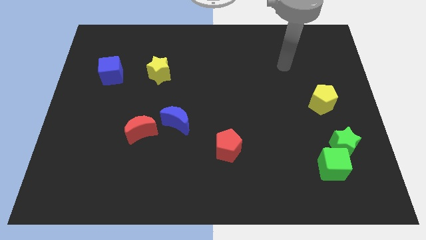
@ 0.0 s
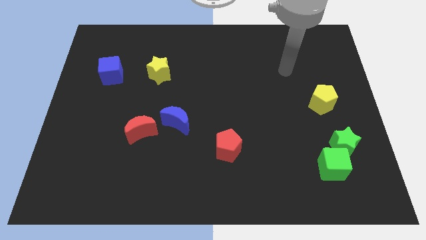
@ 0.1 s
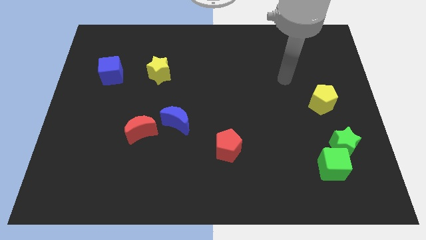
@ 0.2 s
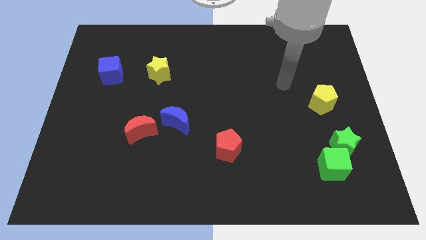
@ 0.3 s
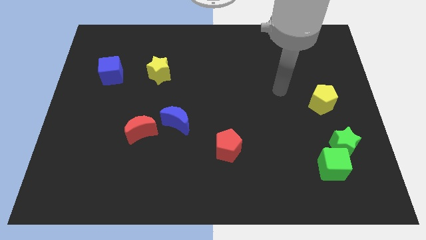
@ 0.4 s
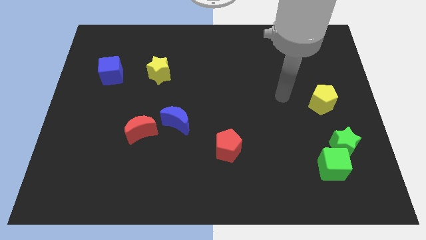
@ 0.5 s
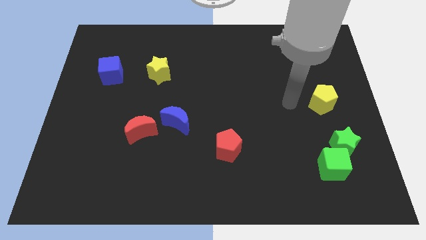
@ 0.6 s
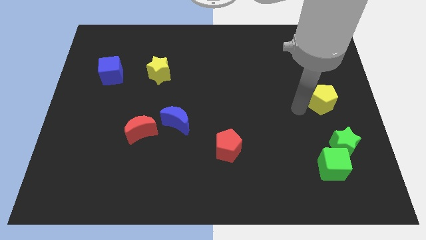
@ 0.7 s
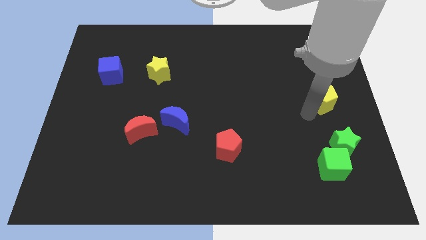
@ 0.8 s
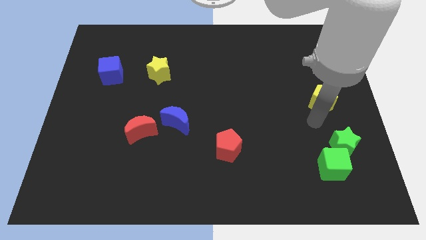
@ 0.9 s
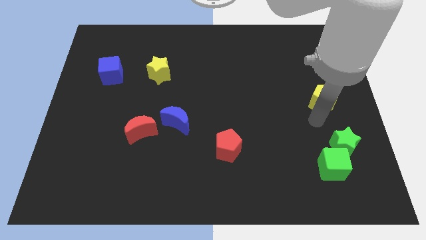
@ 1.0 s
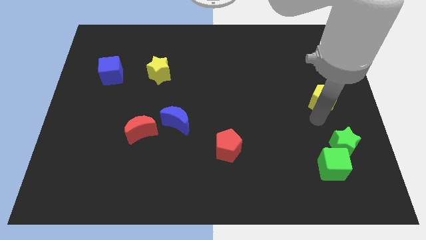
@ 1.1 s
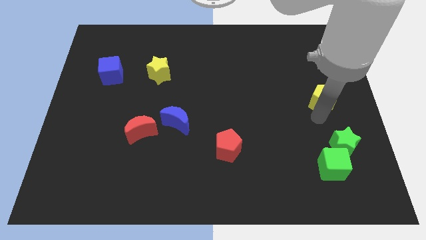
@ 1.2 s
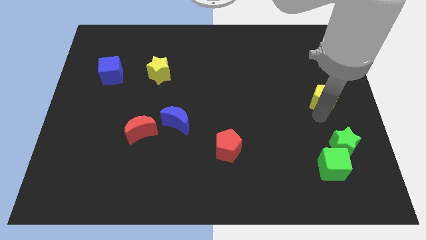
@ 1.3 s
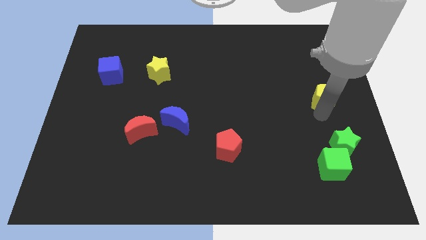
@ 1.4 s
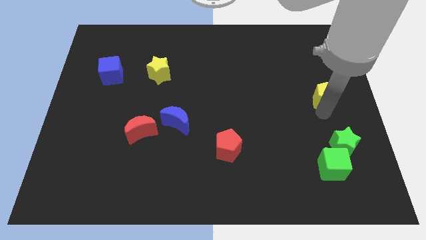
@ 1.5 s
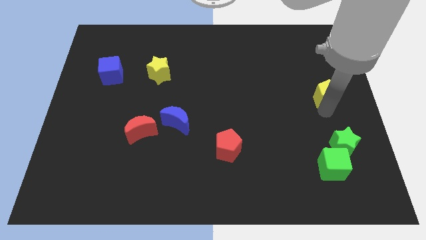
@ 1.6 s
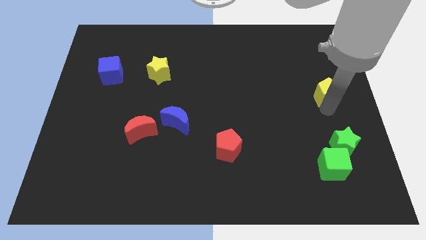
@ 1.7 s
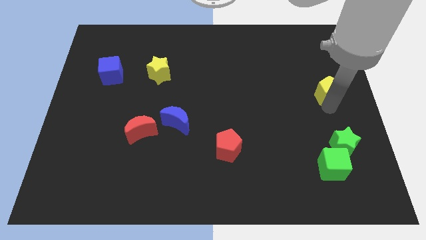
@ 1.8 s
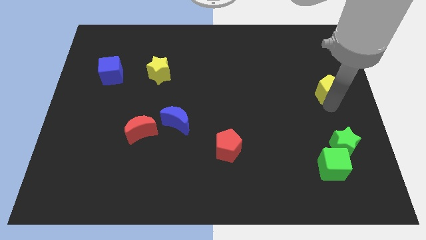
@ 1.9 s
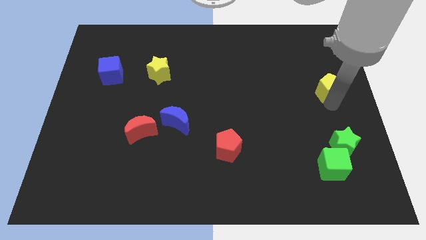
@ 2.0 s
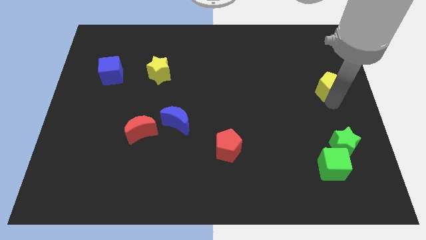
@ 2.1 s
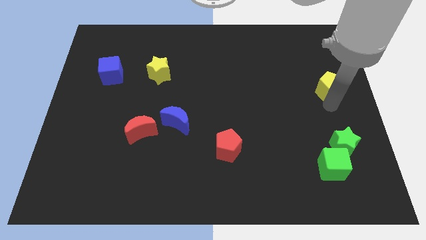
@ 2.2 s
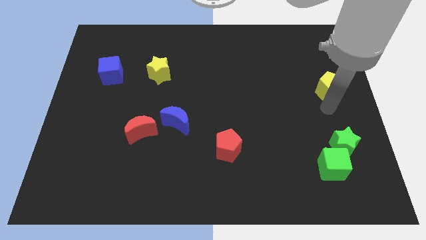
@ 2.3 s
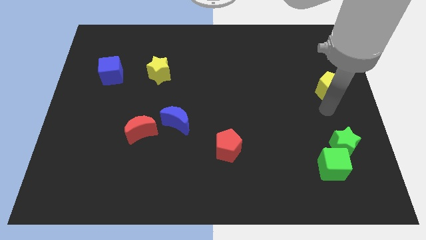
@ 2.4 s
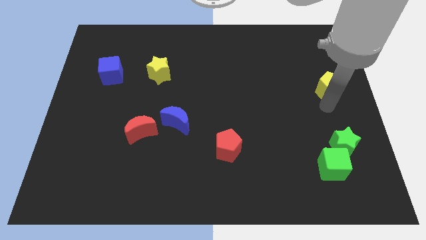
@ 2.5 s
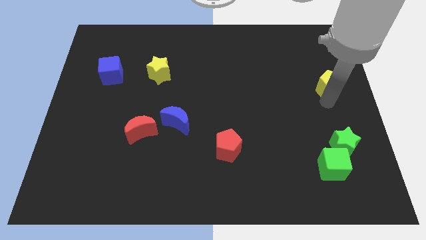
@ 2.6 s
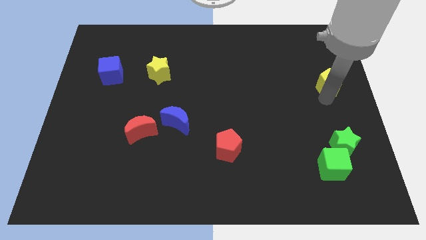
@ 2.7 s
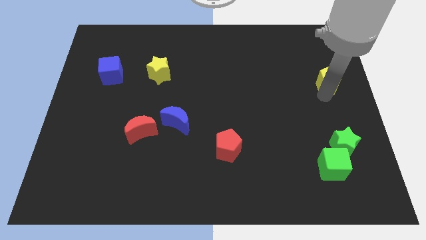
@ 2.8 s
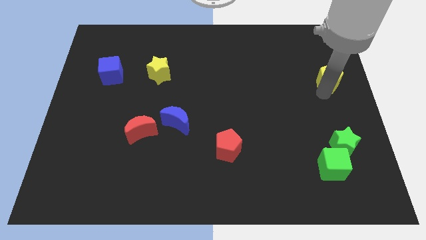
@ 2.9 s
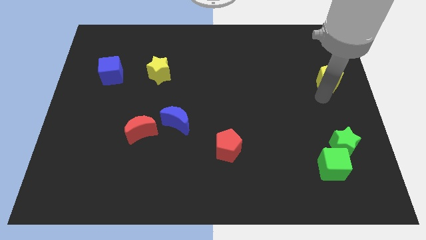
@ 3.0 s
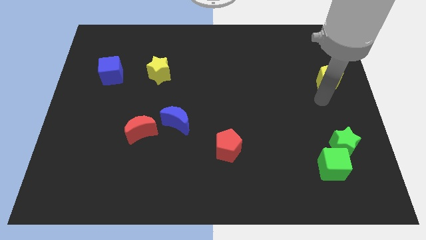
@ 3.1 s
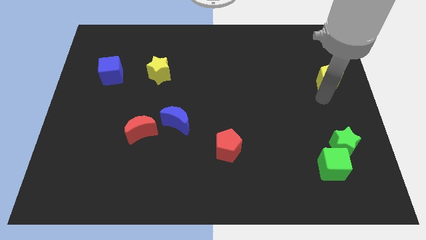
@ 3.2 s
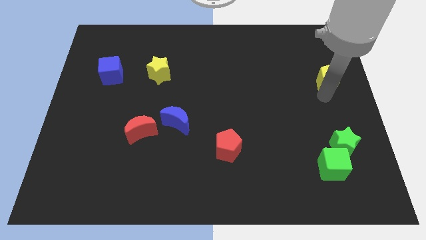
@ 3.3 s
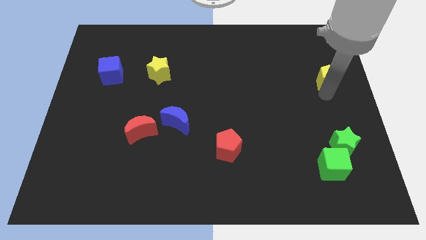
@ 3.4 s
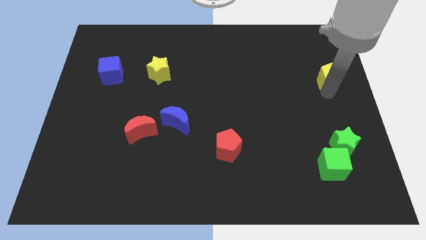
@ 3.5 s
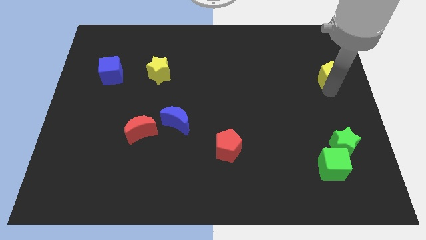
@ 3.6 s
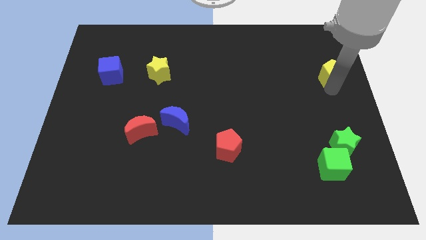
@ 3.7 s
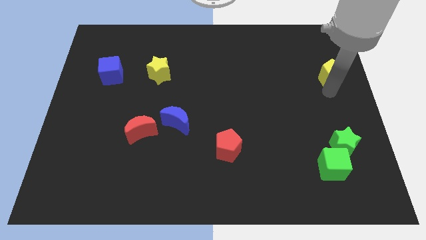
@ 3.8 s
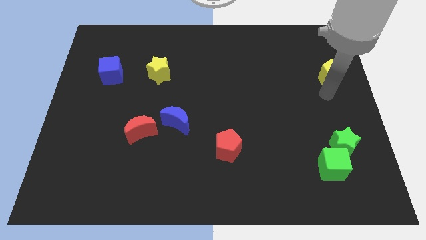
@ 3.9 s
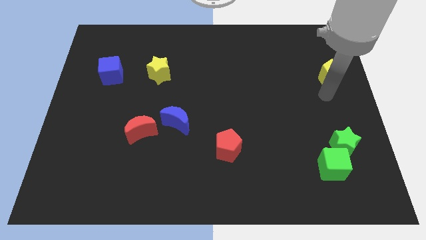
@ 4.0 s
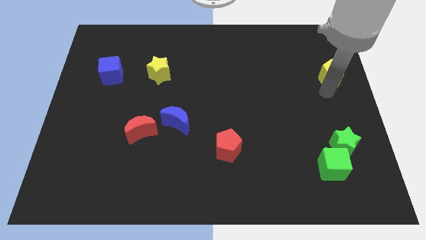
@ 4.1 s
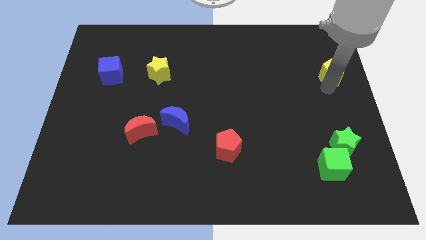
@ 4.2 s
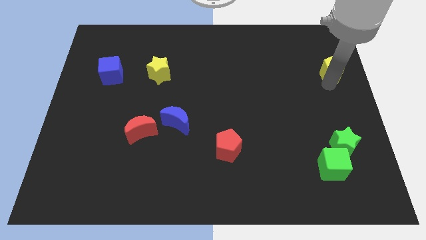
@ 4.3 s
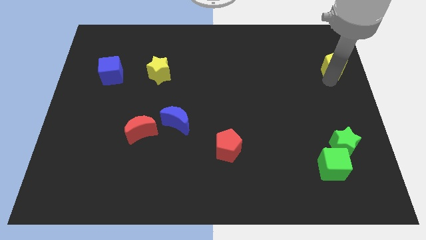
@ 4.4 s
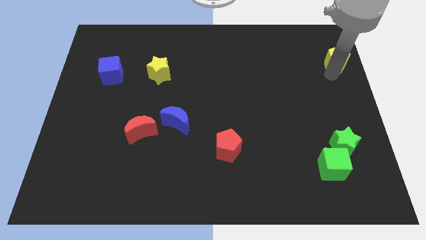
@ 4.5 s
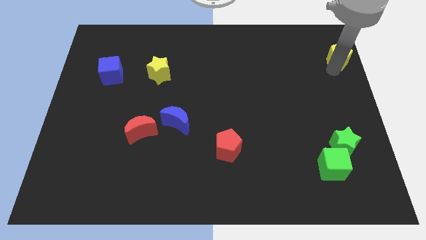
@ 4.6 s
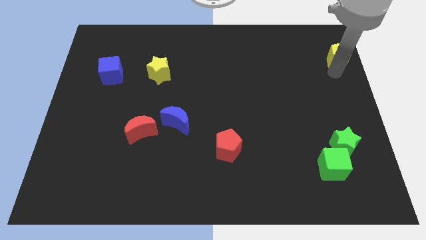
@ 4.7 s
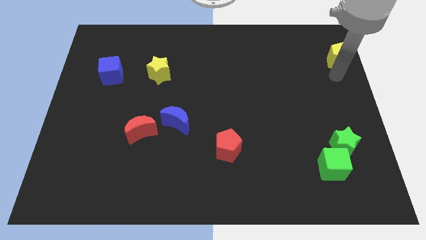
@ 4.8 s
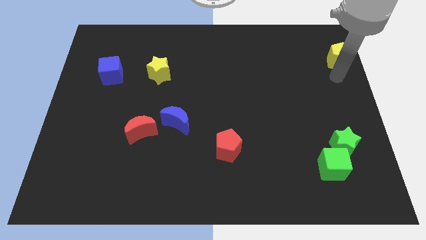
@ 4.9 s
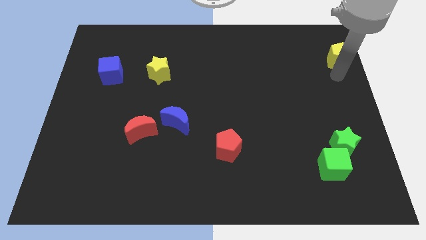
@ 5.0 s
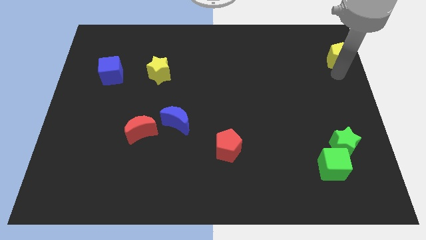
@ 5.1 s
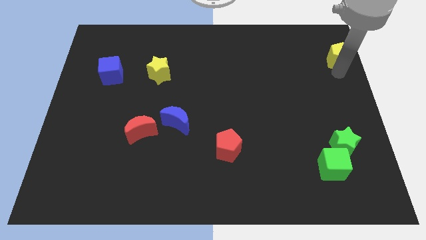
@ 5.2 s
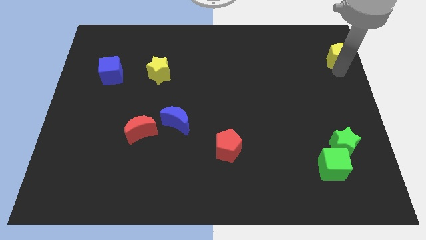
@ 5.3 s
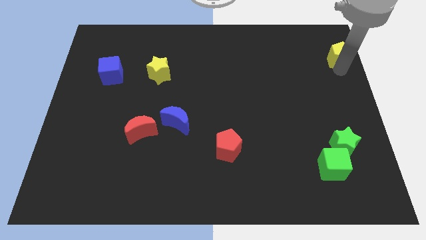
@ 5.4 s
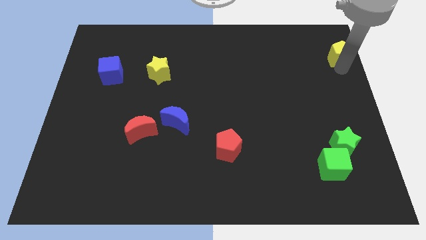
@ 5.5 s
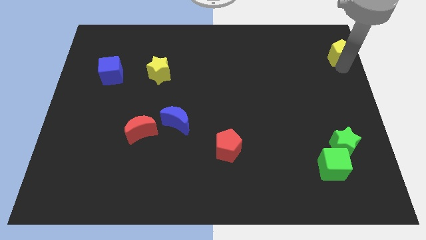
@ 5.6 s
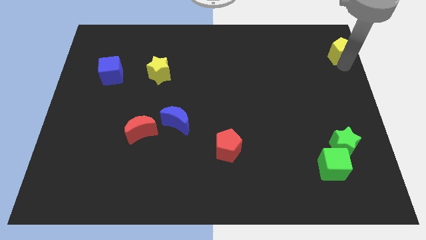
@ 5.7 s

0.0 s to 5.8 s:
move the yellow pentagon to the top right corner

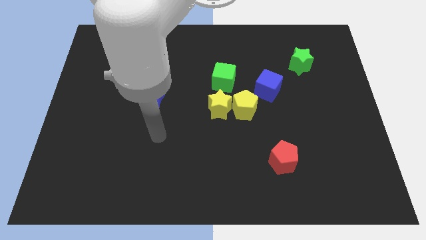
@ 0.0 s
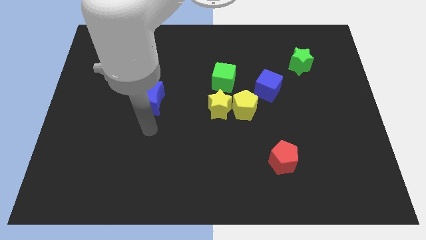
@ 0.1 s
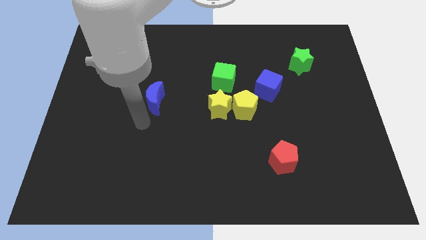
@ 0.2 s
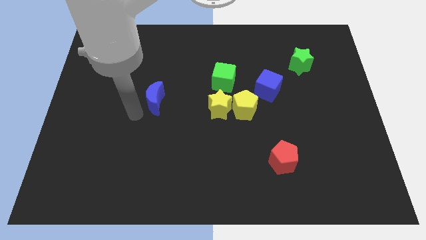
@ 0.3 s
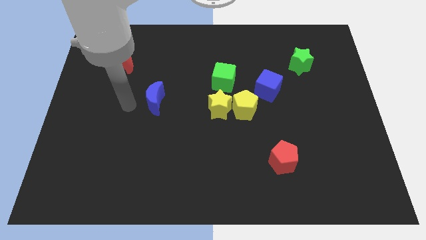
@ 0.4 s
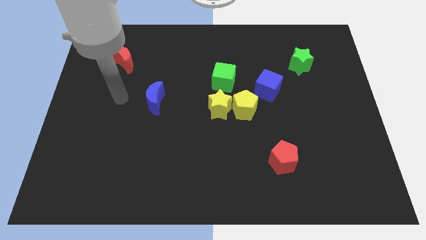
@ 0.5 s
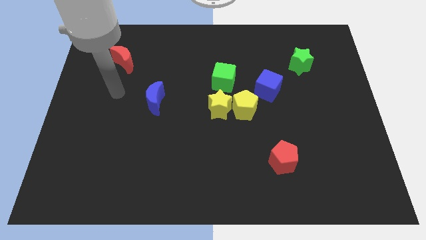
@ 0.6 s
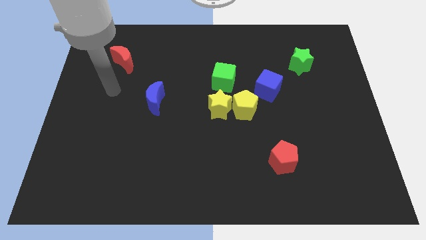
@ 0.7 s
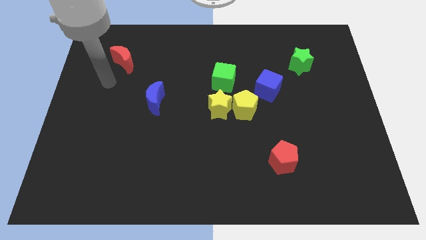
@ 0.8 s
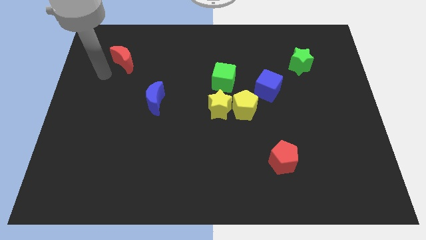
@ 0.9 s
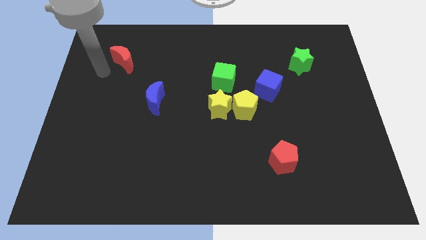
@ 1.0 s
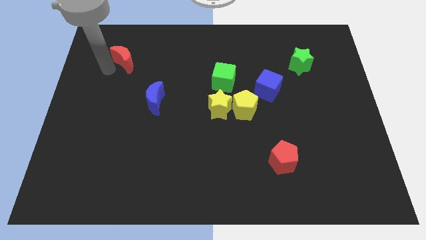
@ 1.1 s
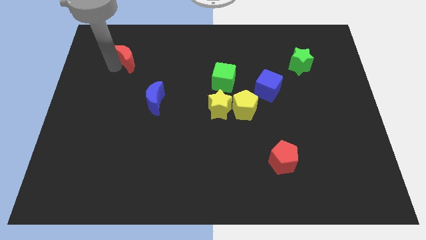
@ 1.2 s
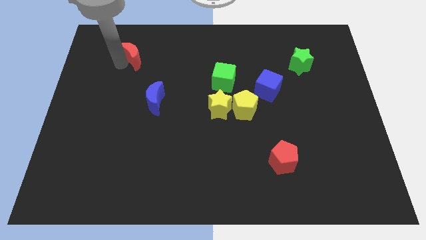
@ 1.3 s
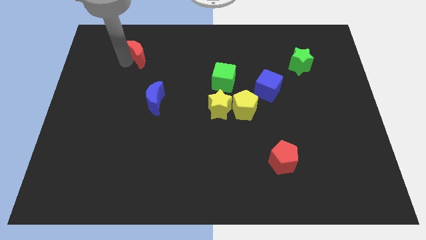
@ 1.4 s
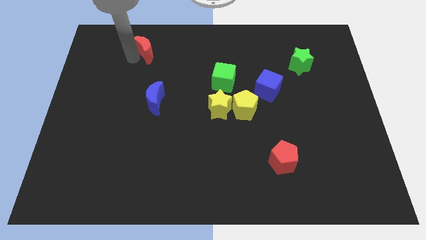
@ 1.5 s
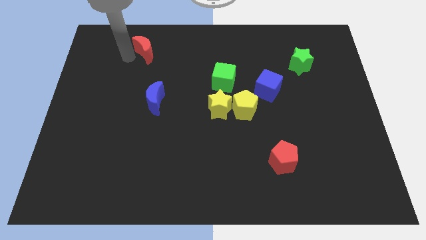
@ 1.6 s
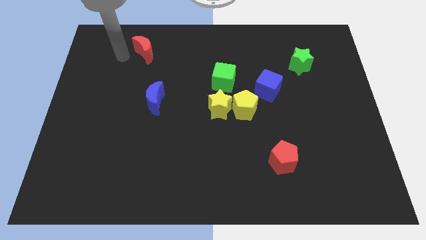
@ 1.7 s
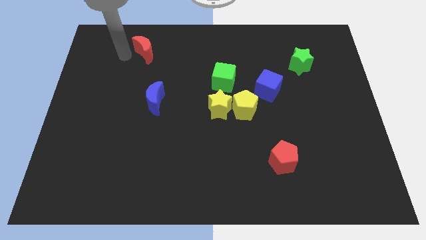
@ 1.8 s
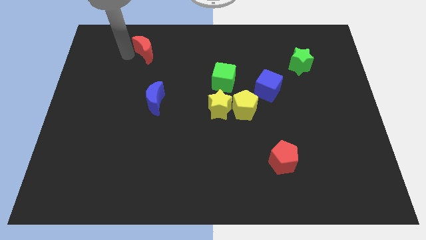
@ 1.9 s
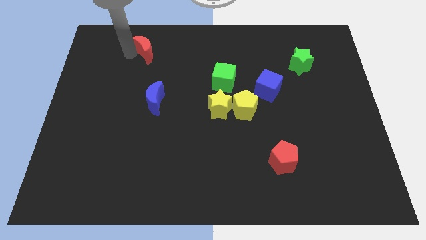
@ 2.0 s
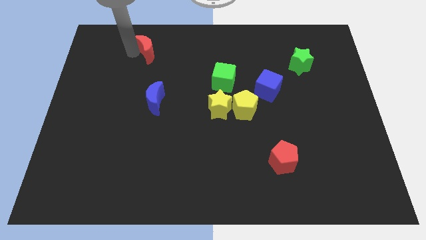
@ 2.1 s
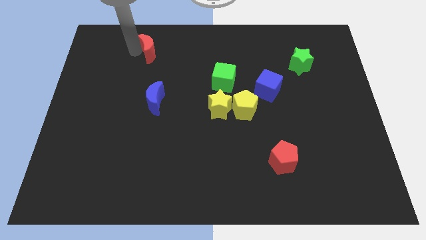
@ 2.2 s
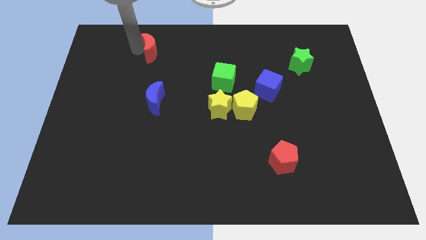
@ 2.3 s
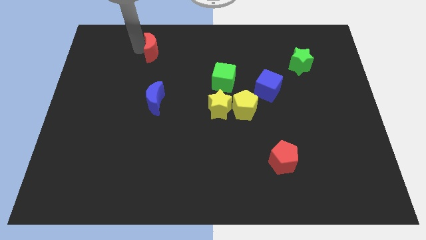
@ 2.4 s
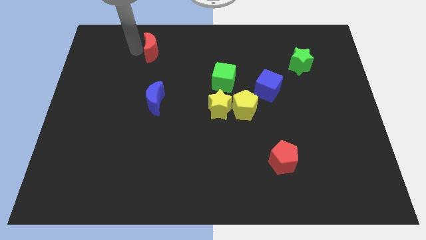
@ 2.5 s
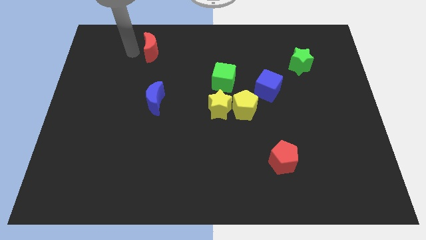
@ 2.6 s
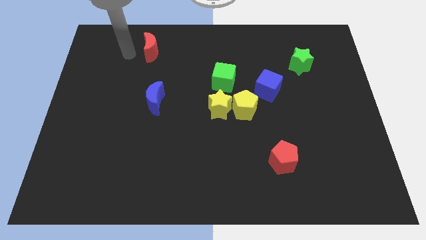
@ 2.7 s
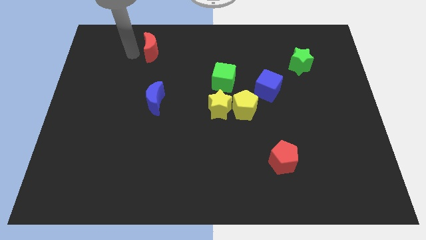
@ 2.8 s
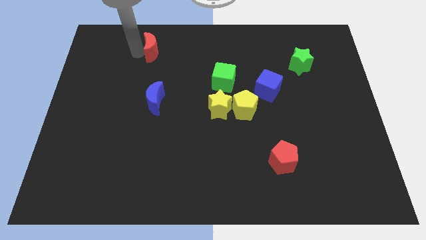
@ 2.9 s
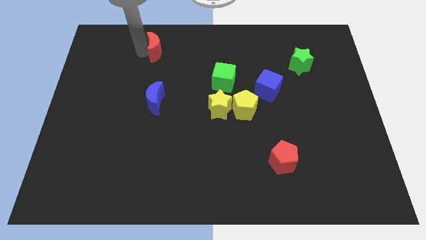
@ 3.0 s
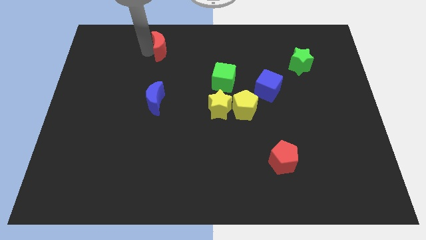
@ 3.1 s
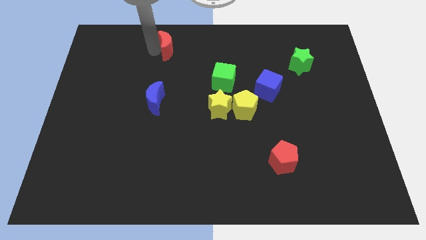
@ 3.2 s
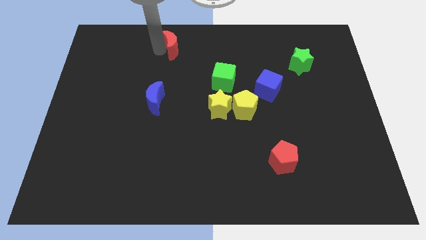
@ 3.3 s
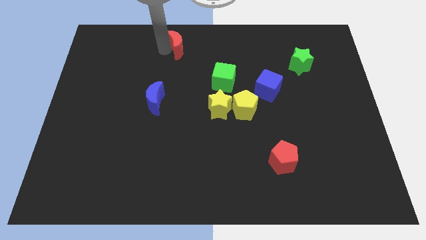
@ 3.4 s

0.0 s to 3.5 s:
put the red moon to the towards your base
